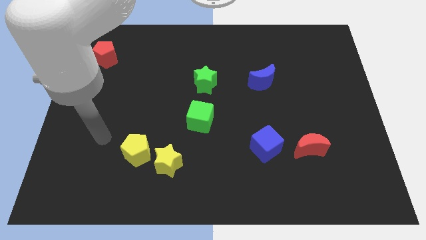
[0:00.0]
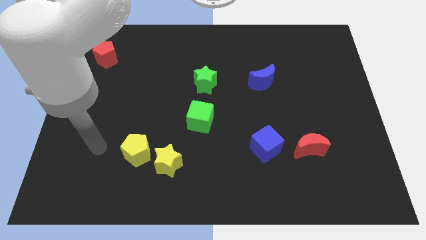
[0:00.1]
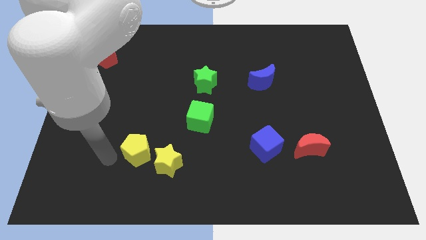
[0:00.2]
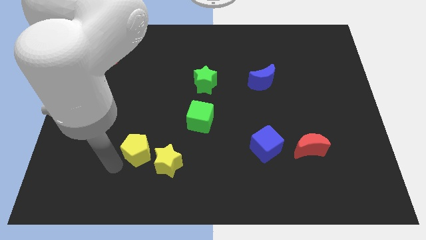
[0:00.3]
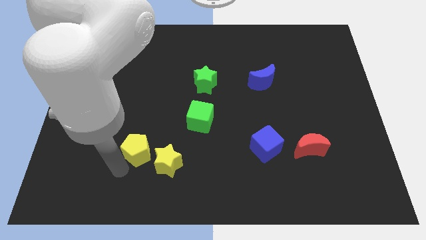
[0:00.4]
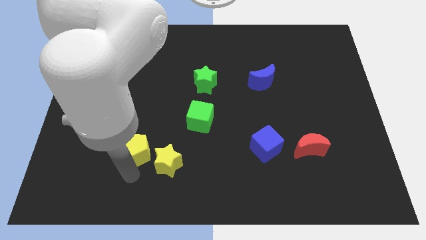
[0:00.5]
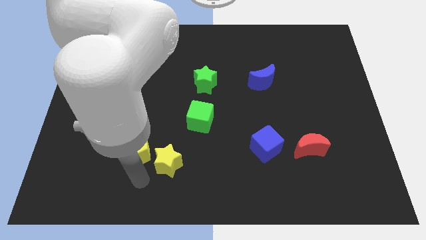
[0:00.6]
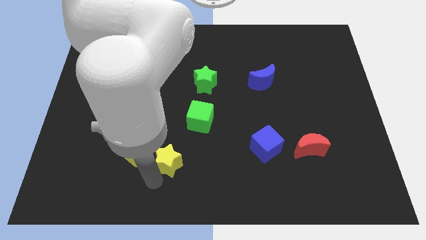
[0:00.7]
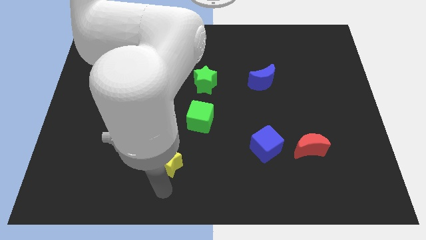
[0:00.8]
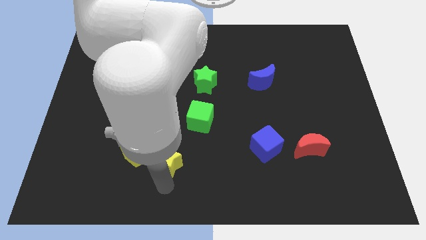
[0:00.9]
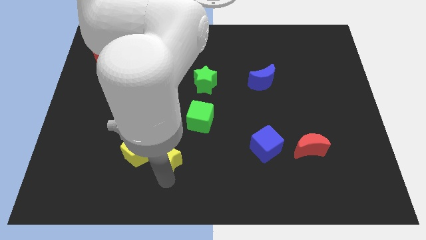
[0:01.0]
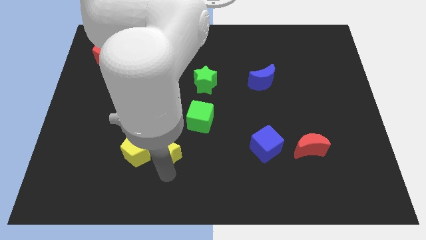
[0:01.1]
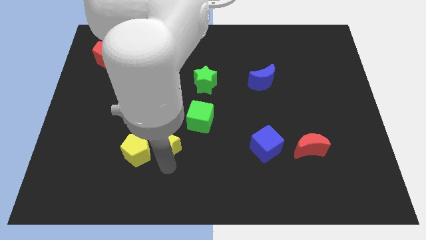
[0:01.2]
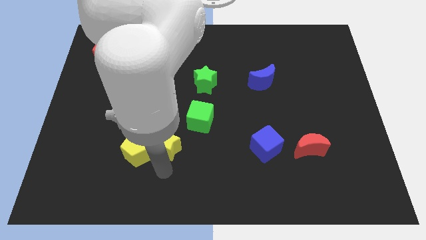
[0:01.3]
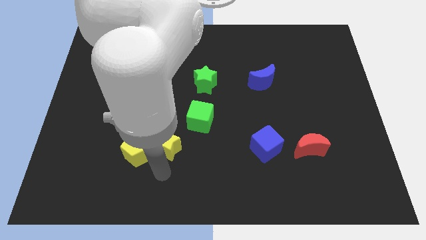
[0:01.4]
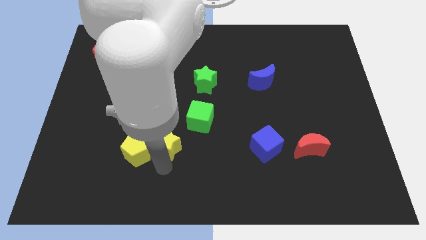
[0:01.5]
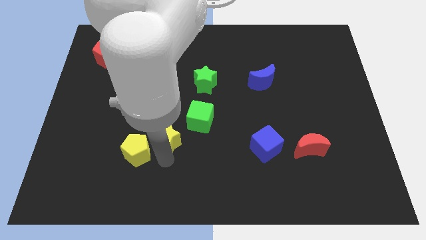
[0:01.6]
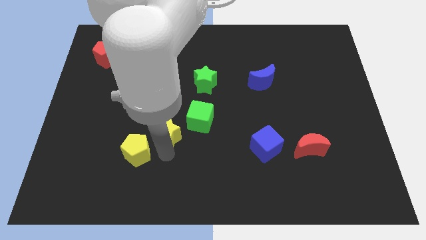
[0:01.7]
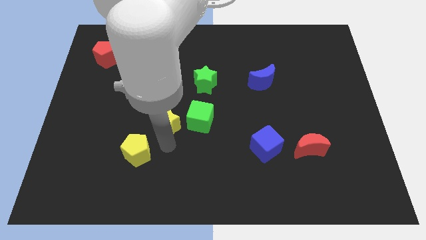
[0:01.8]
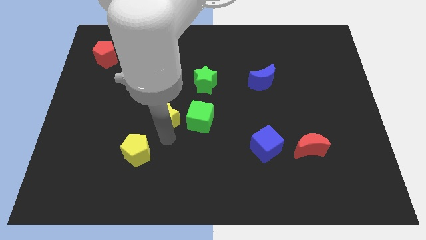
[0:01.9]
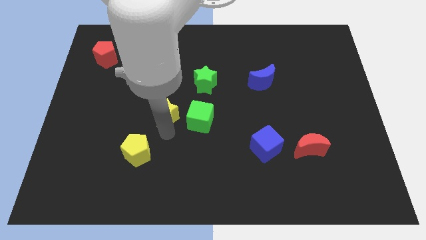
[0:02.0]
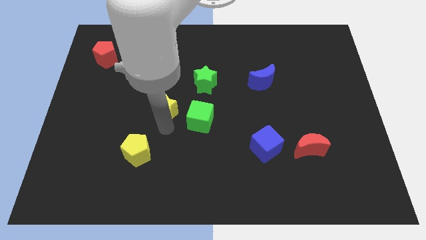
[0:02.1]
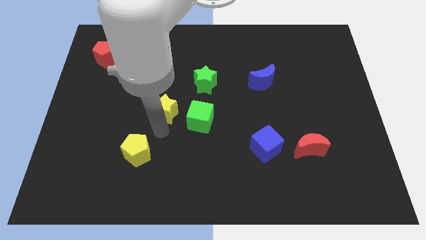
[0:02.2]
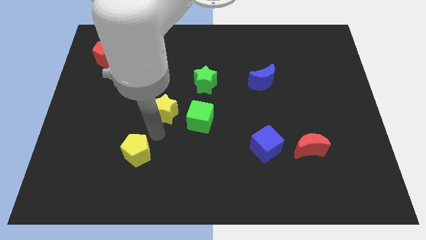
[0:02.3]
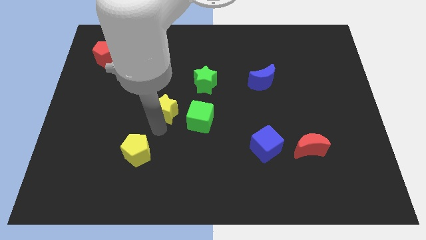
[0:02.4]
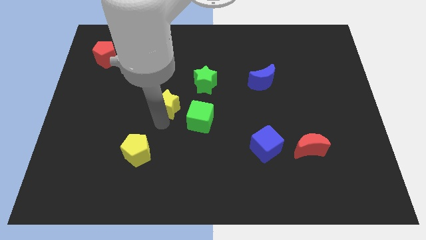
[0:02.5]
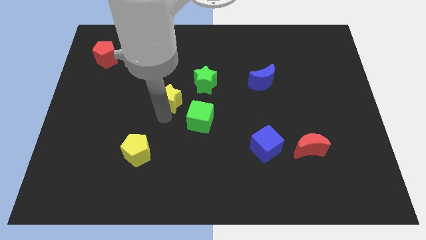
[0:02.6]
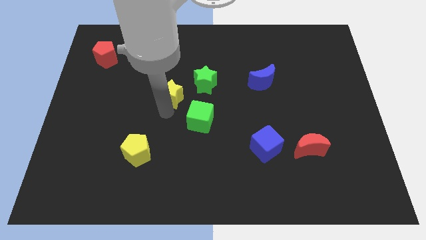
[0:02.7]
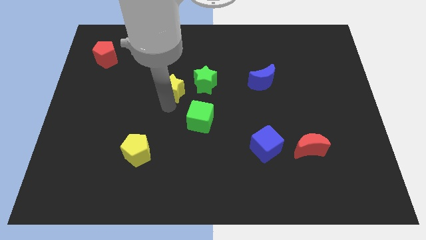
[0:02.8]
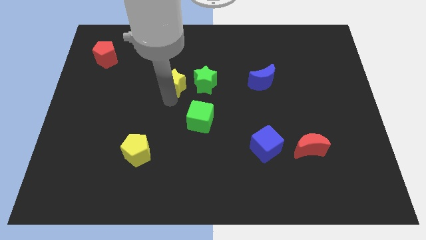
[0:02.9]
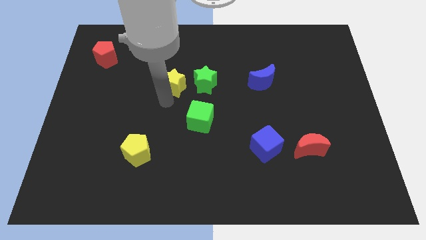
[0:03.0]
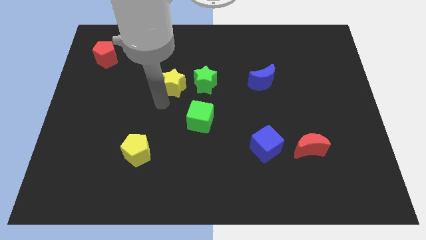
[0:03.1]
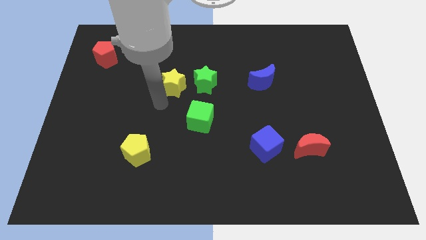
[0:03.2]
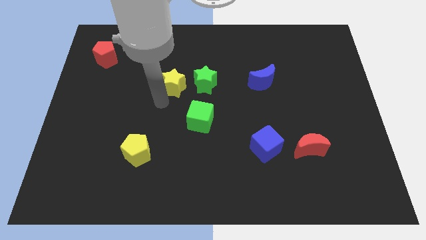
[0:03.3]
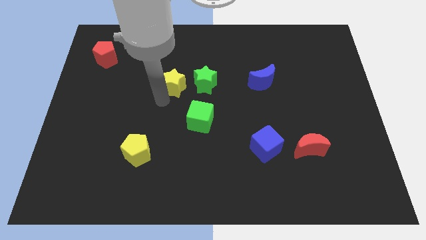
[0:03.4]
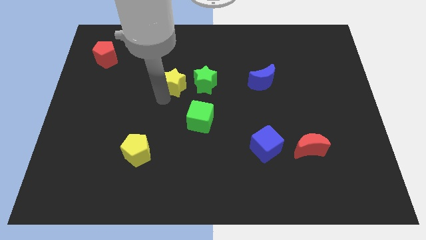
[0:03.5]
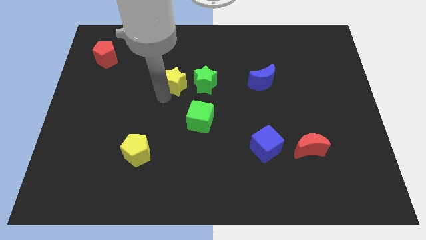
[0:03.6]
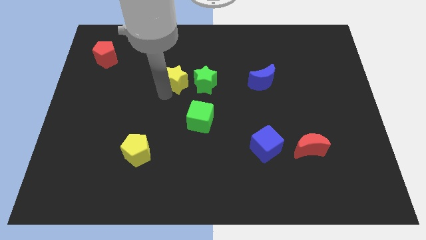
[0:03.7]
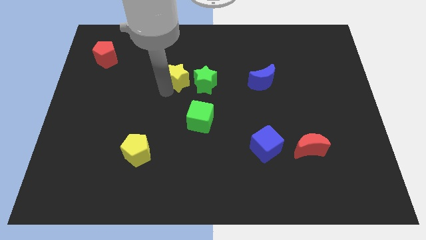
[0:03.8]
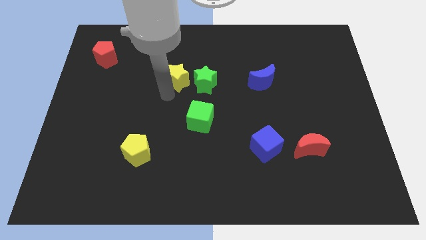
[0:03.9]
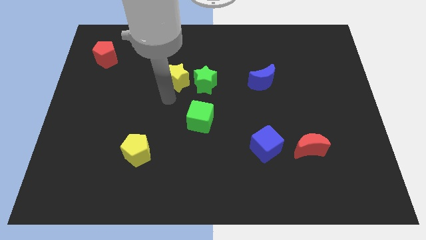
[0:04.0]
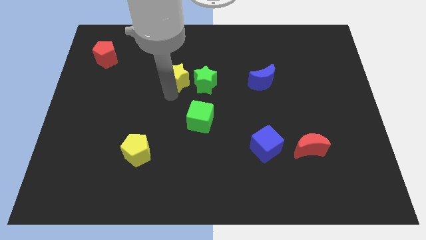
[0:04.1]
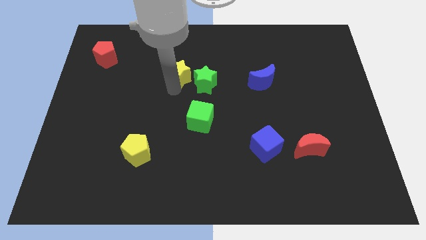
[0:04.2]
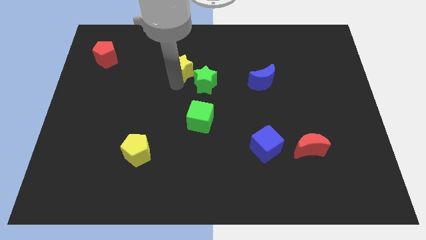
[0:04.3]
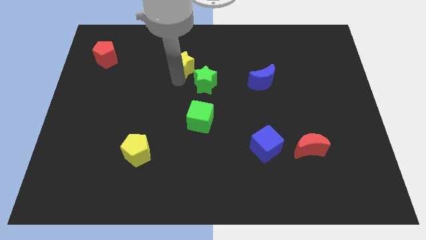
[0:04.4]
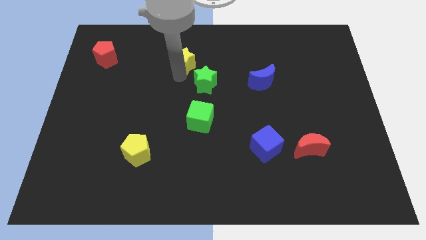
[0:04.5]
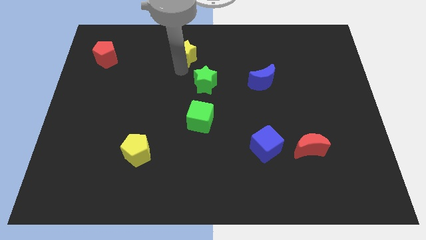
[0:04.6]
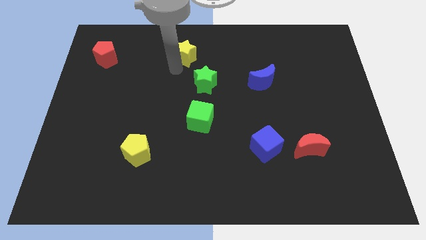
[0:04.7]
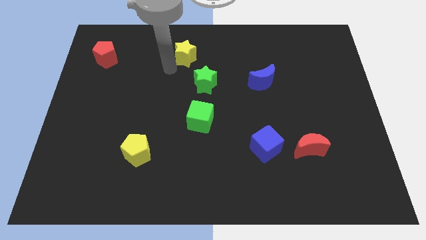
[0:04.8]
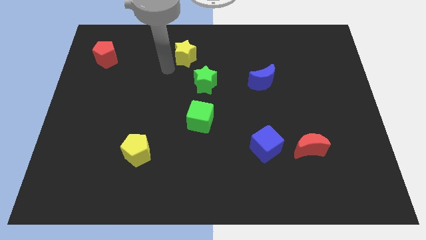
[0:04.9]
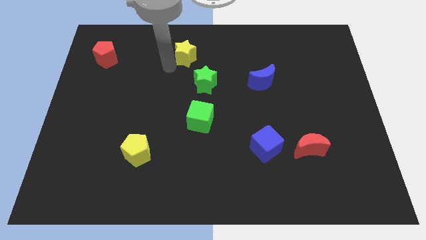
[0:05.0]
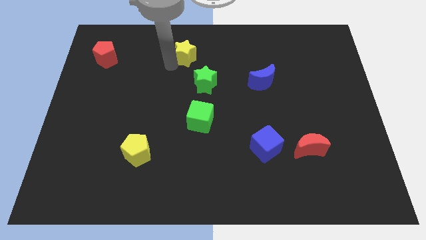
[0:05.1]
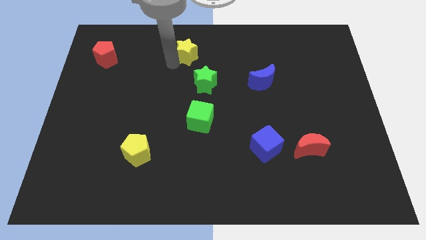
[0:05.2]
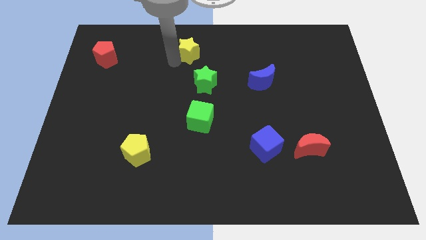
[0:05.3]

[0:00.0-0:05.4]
slide the yellow star to the top

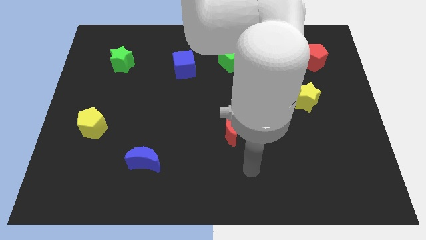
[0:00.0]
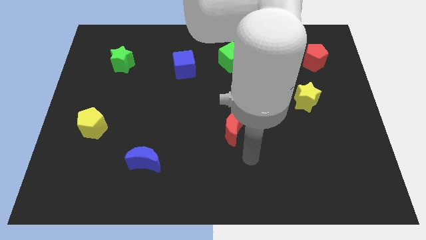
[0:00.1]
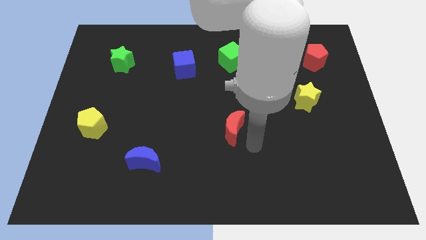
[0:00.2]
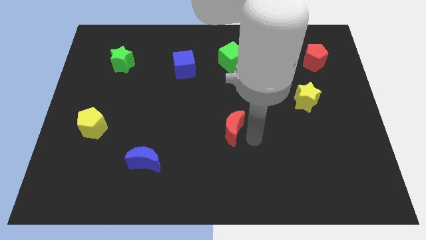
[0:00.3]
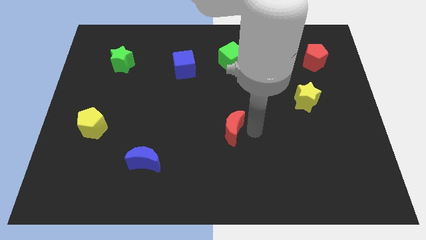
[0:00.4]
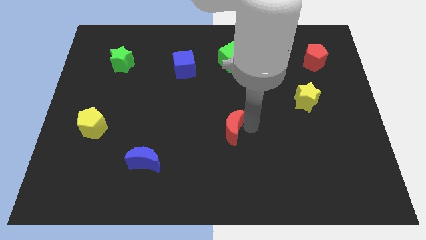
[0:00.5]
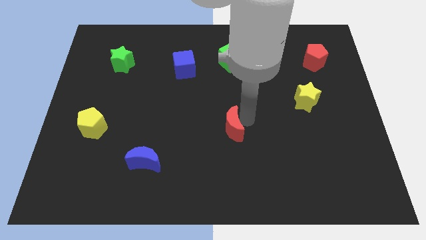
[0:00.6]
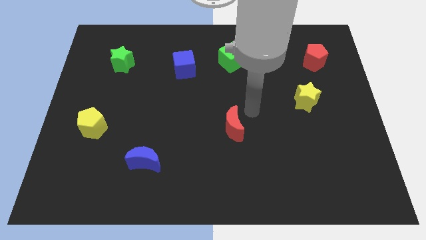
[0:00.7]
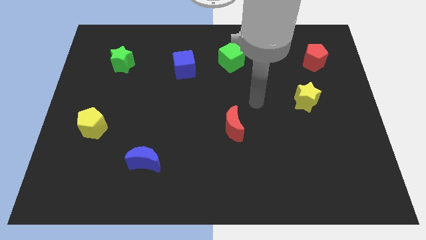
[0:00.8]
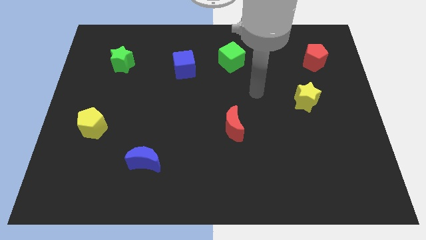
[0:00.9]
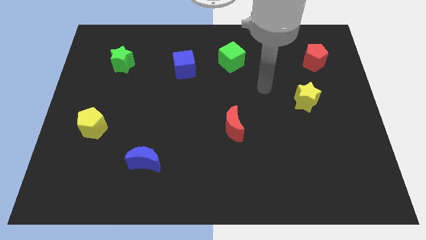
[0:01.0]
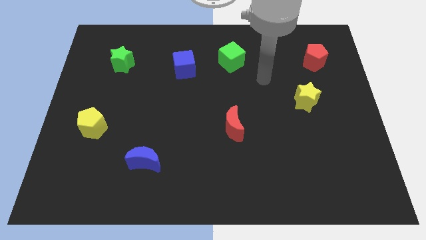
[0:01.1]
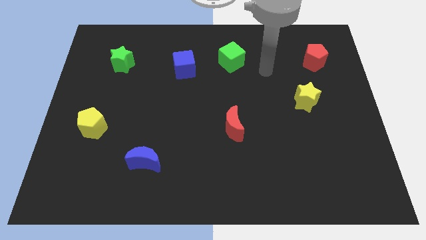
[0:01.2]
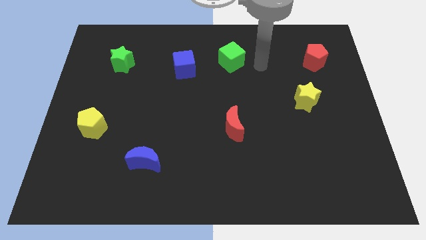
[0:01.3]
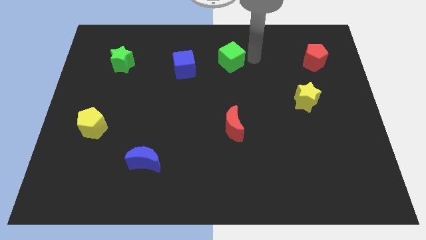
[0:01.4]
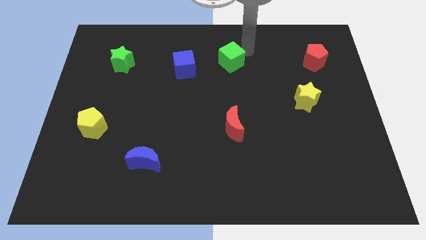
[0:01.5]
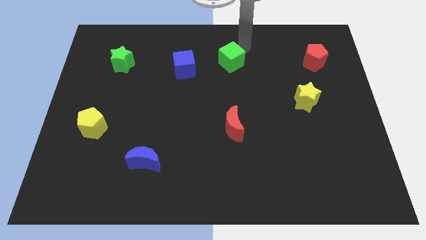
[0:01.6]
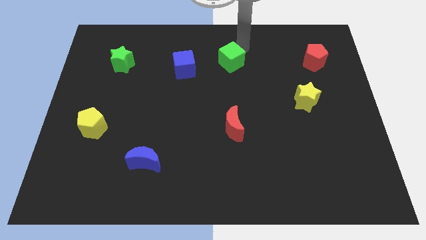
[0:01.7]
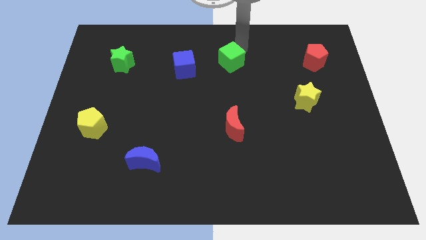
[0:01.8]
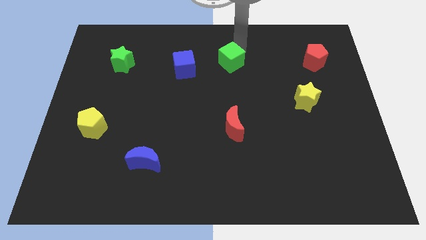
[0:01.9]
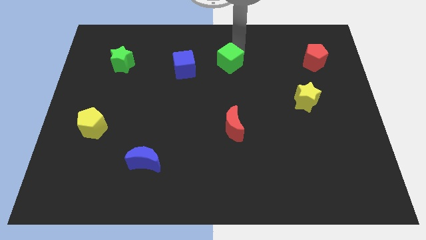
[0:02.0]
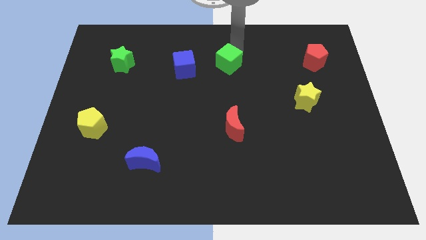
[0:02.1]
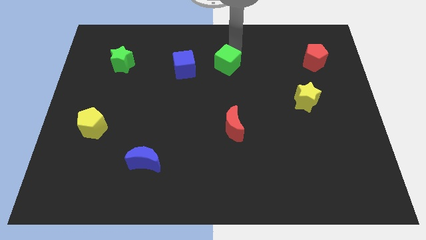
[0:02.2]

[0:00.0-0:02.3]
slide the green cube to the center
